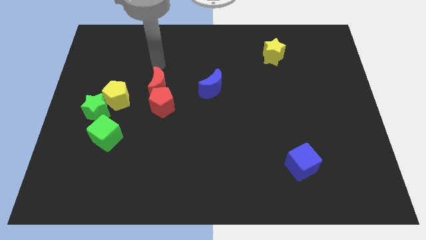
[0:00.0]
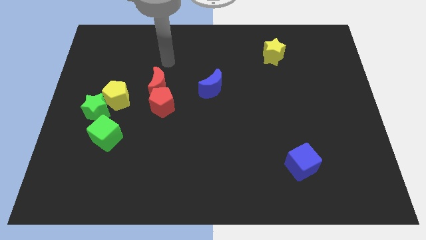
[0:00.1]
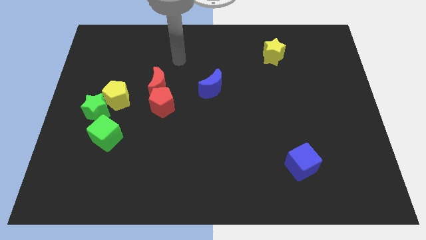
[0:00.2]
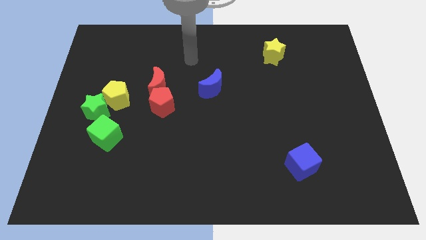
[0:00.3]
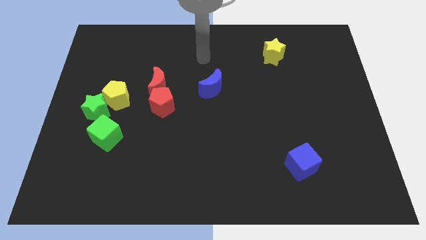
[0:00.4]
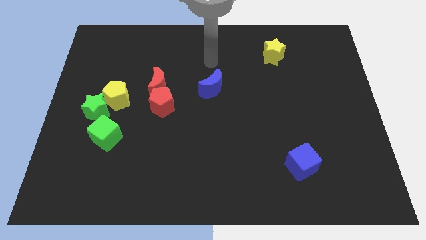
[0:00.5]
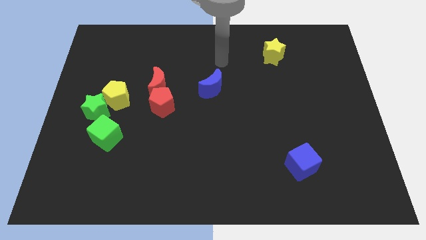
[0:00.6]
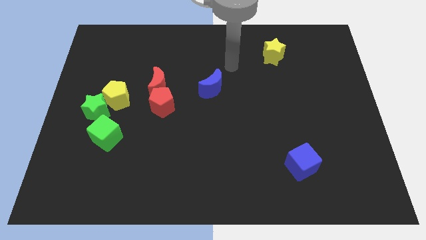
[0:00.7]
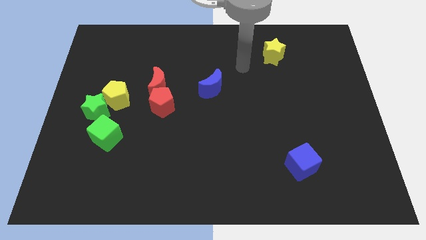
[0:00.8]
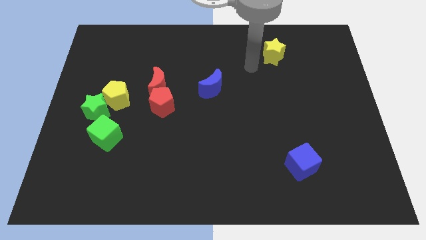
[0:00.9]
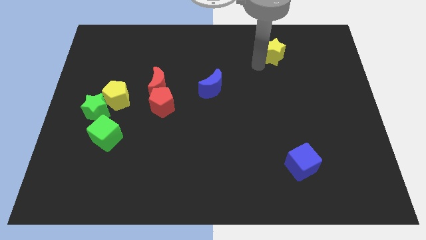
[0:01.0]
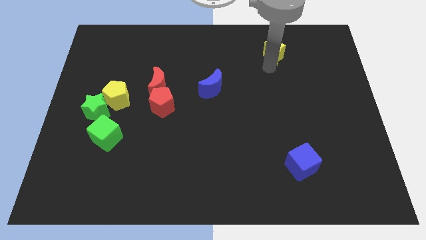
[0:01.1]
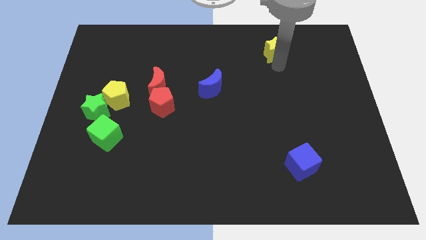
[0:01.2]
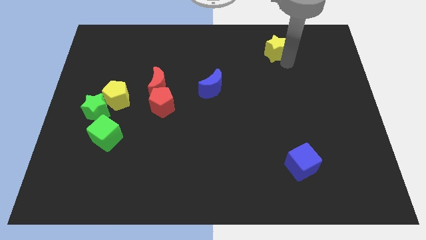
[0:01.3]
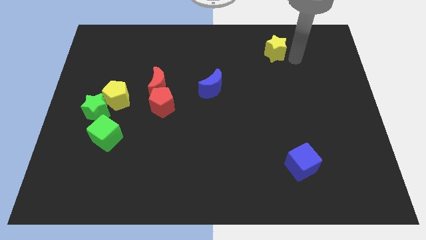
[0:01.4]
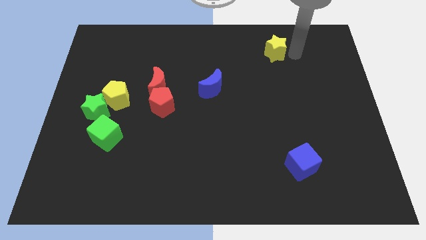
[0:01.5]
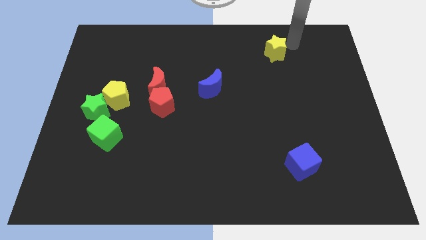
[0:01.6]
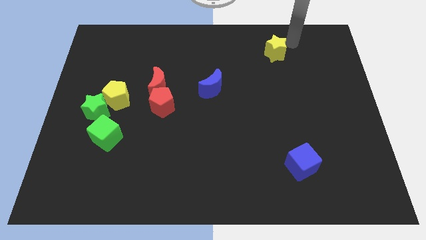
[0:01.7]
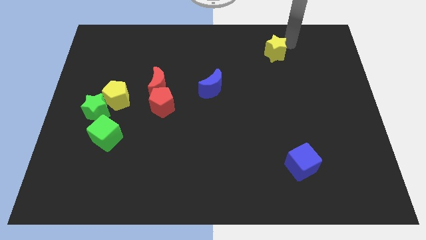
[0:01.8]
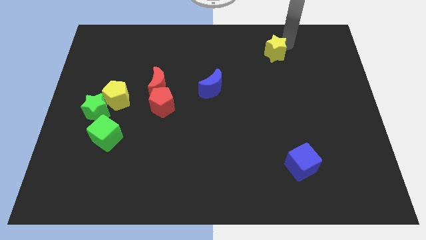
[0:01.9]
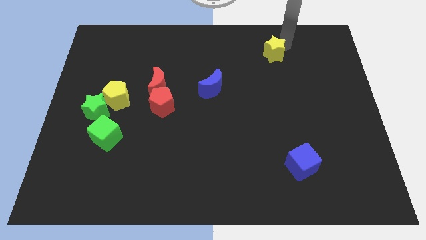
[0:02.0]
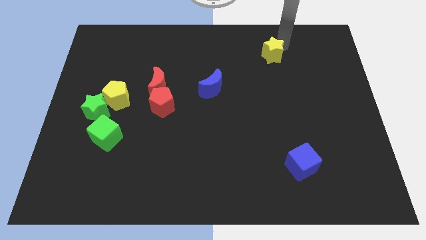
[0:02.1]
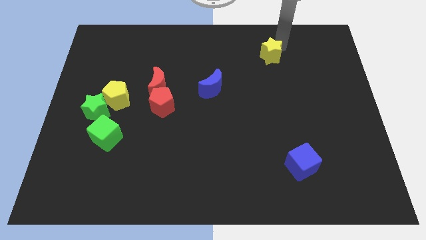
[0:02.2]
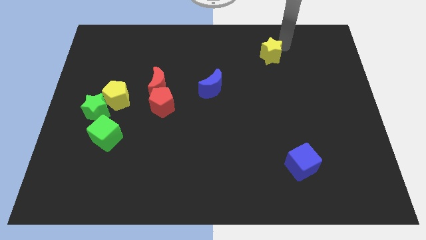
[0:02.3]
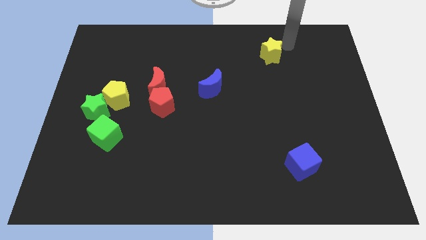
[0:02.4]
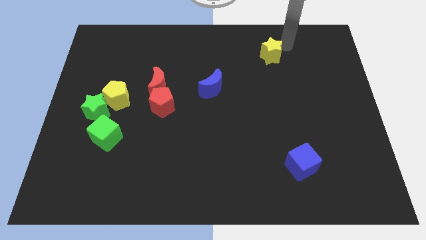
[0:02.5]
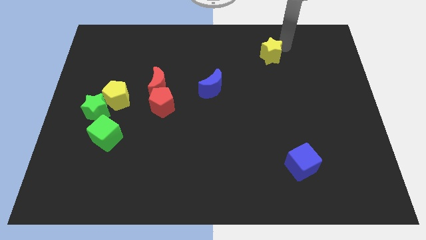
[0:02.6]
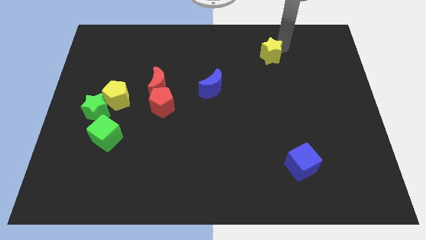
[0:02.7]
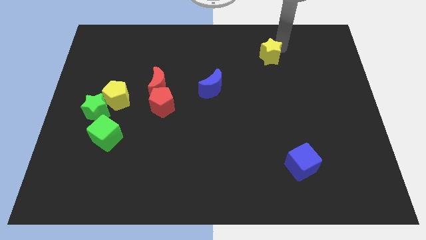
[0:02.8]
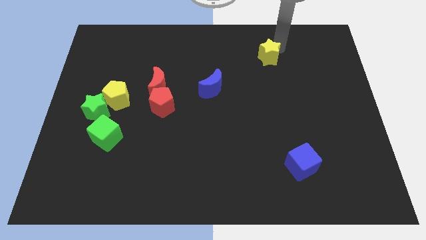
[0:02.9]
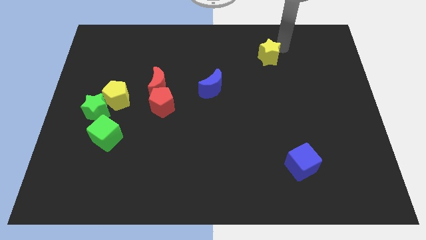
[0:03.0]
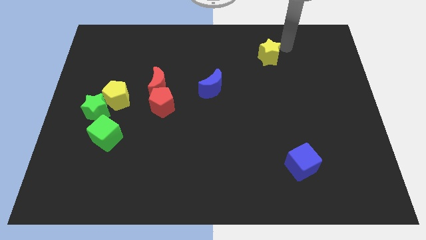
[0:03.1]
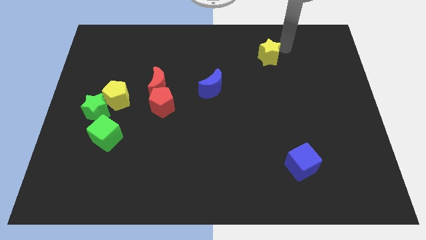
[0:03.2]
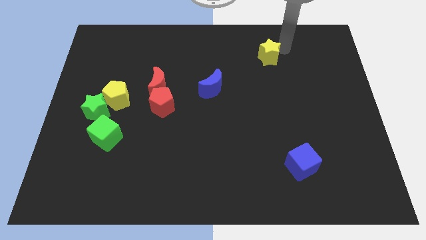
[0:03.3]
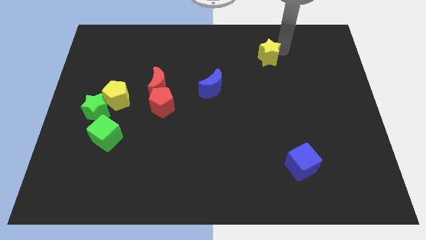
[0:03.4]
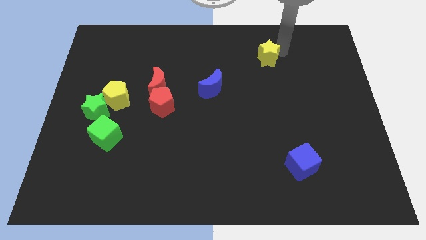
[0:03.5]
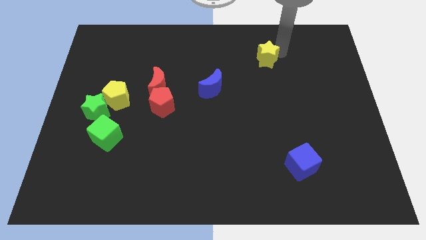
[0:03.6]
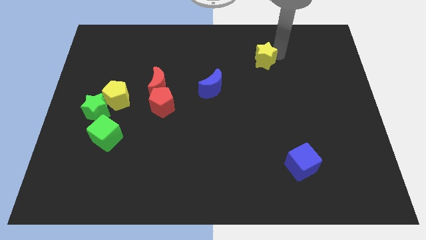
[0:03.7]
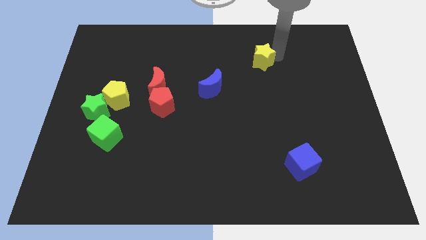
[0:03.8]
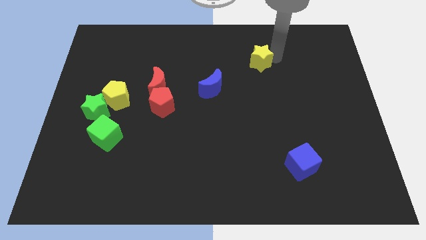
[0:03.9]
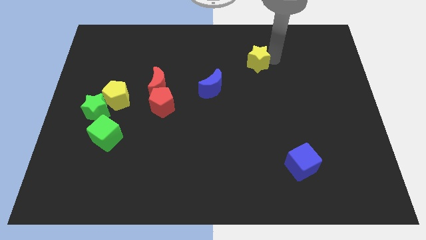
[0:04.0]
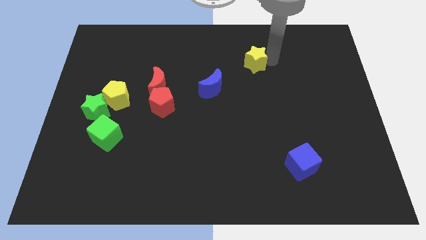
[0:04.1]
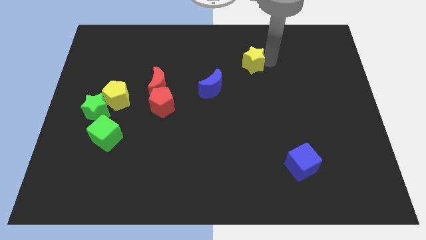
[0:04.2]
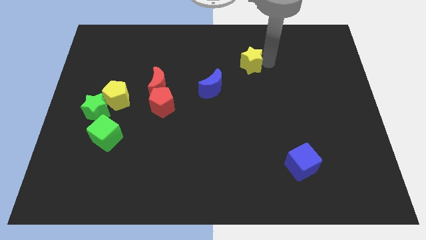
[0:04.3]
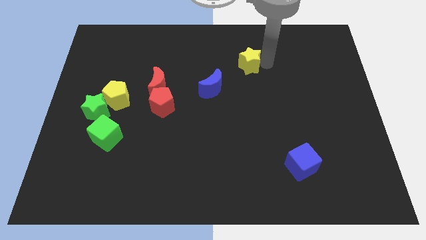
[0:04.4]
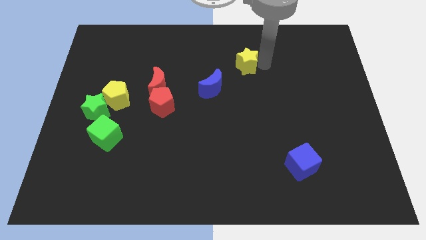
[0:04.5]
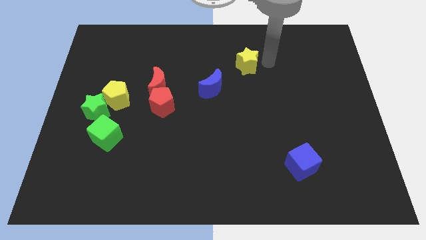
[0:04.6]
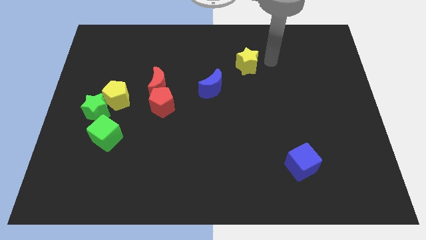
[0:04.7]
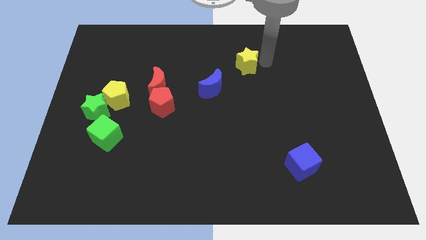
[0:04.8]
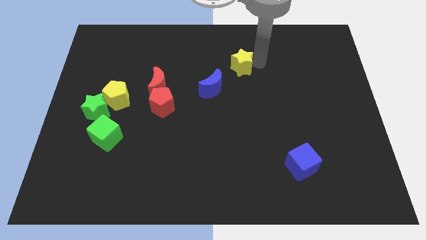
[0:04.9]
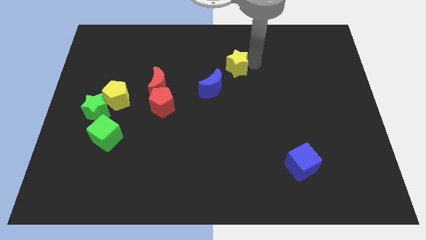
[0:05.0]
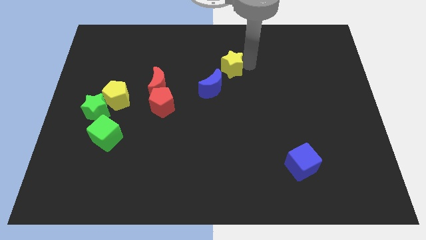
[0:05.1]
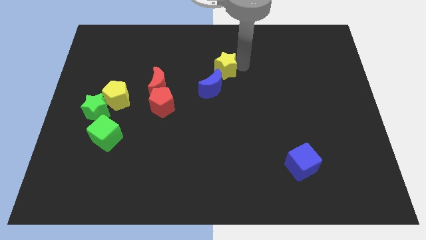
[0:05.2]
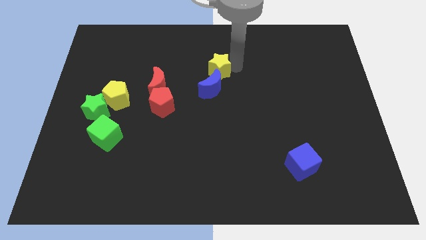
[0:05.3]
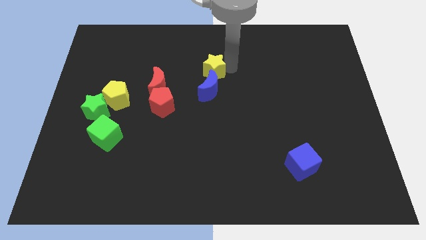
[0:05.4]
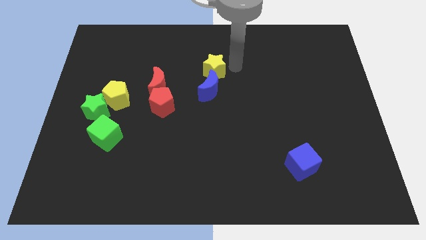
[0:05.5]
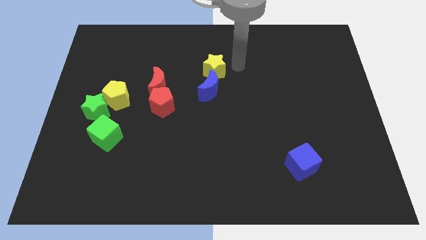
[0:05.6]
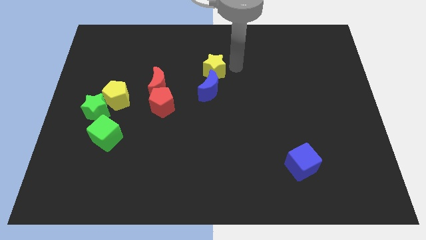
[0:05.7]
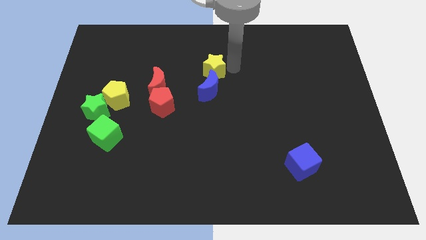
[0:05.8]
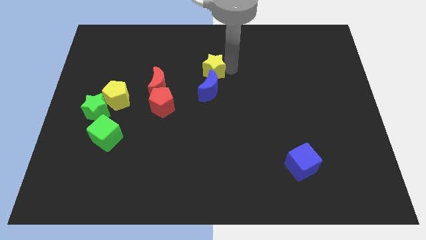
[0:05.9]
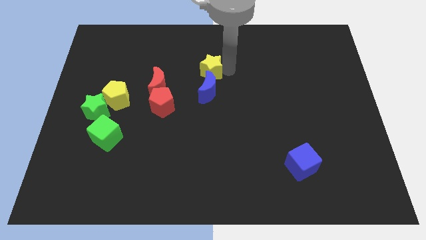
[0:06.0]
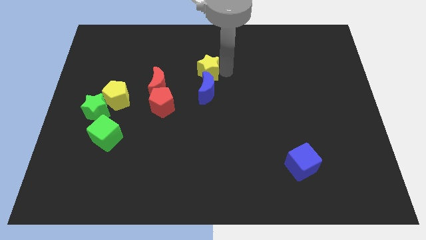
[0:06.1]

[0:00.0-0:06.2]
slide the yellow star to the top left side of the blue moon

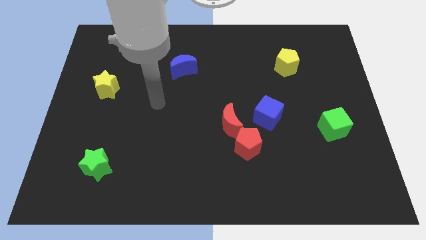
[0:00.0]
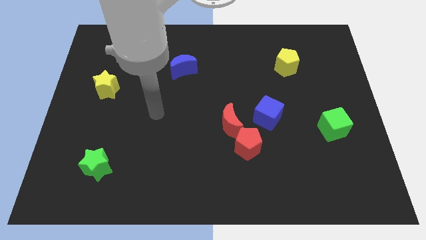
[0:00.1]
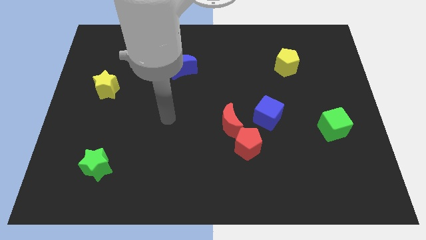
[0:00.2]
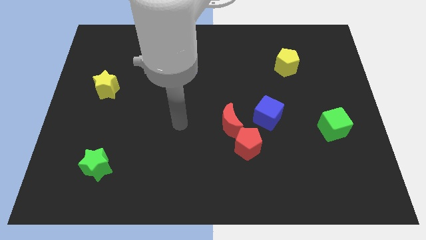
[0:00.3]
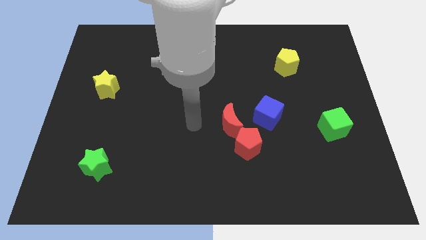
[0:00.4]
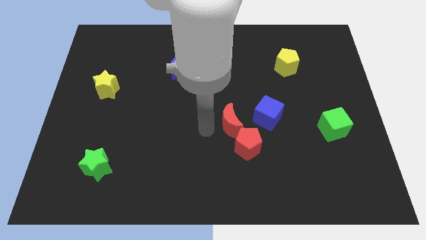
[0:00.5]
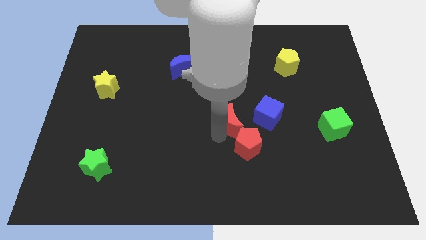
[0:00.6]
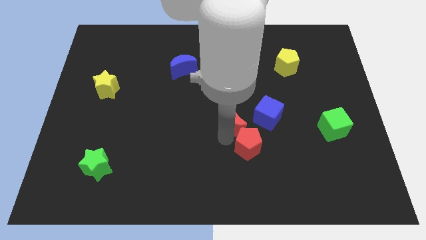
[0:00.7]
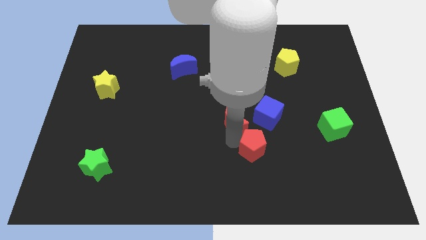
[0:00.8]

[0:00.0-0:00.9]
push the red pentagon to the bottom of the blue cube
